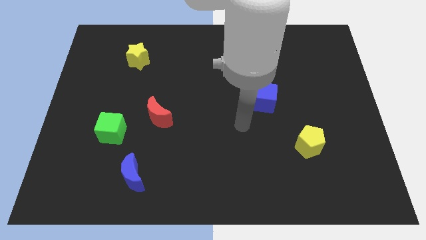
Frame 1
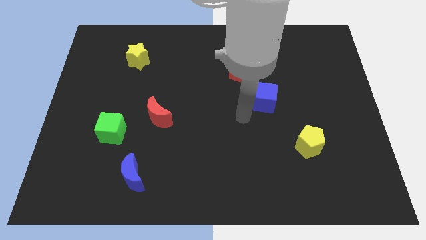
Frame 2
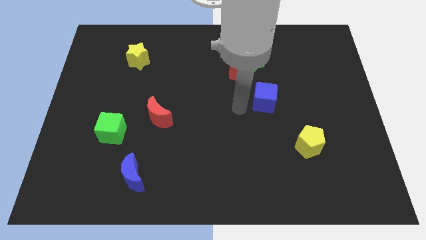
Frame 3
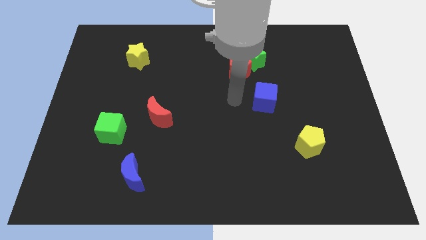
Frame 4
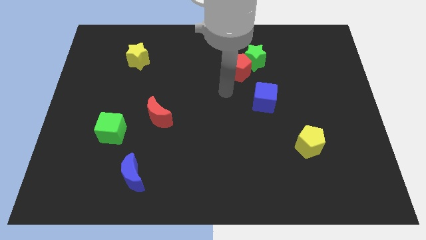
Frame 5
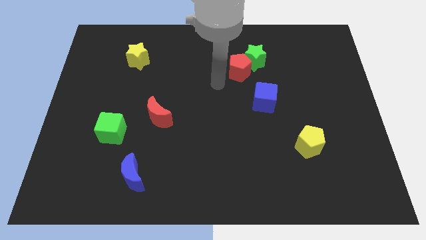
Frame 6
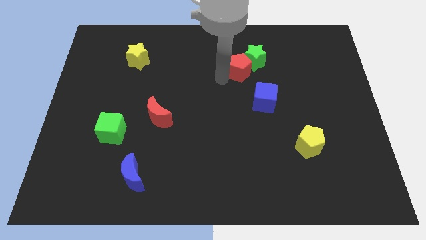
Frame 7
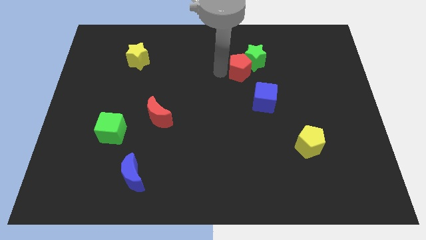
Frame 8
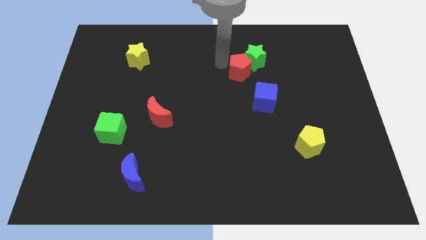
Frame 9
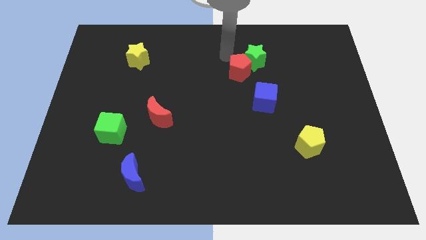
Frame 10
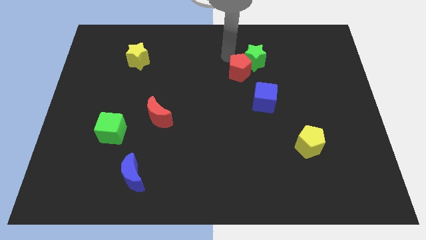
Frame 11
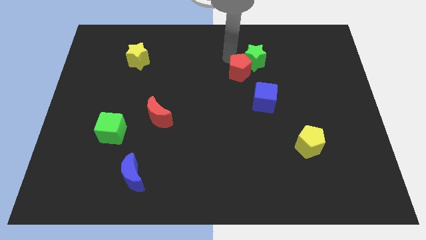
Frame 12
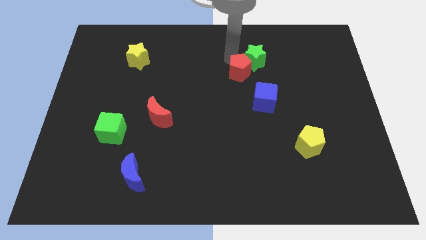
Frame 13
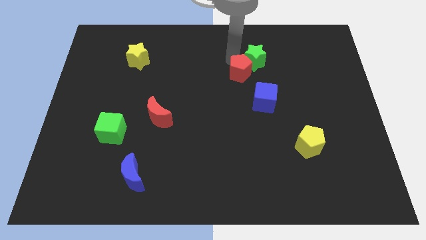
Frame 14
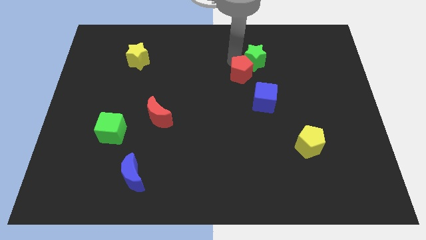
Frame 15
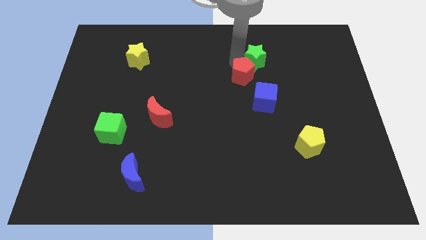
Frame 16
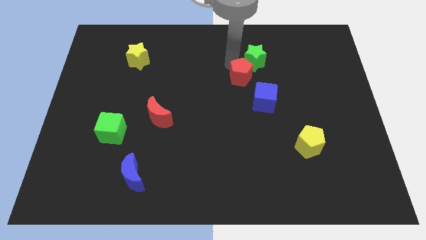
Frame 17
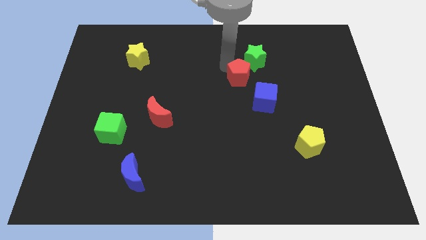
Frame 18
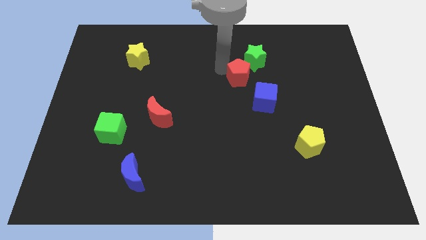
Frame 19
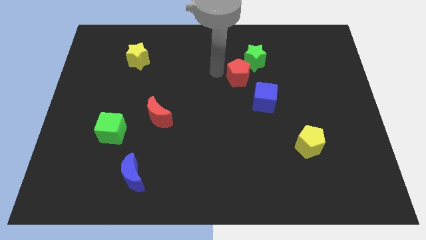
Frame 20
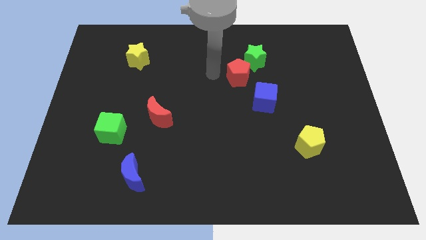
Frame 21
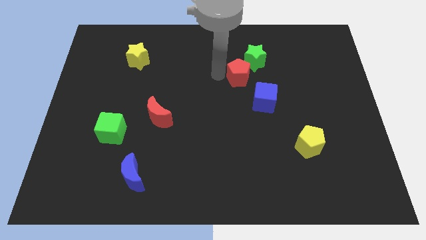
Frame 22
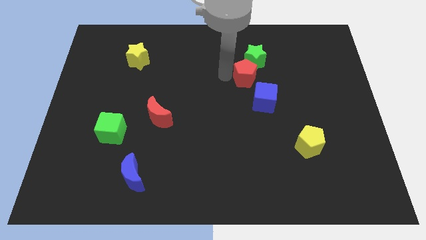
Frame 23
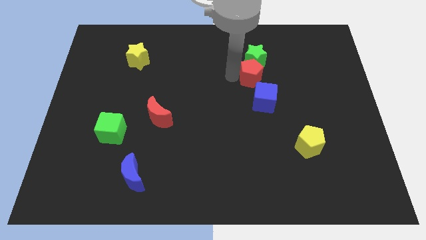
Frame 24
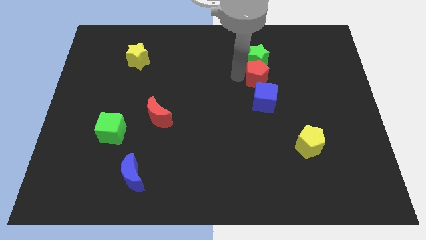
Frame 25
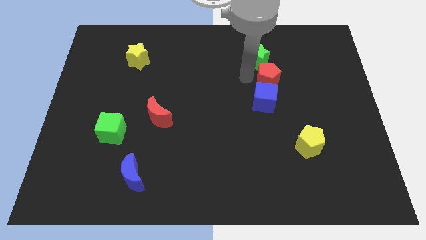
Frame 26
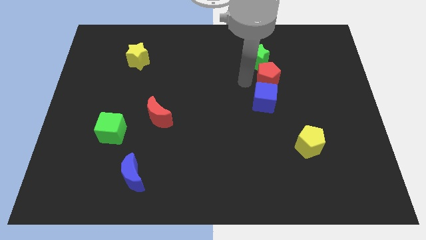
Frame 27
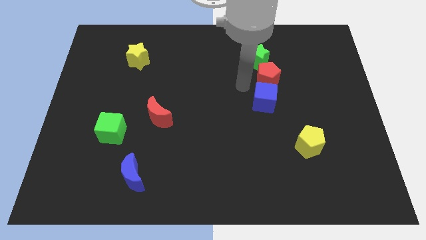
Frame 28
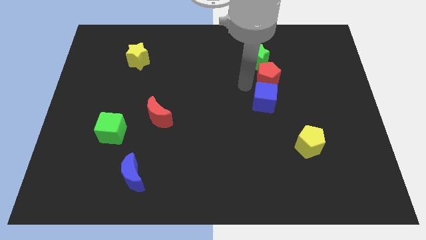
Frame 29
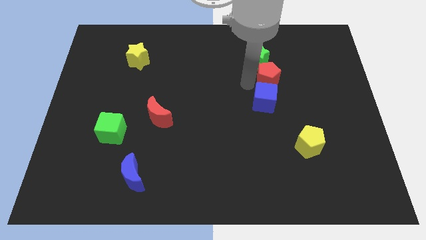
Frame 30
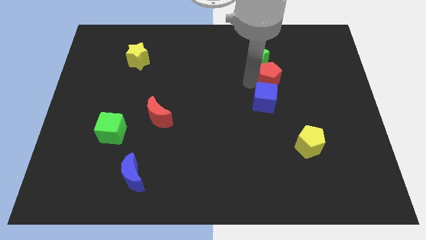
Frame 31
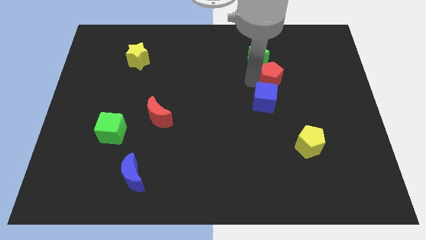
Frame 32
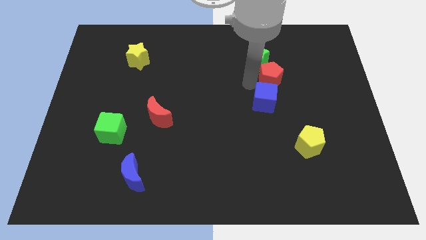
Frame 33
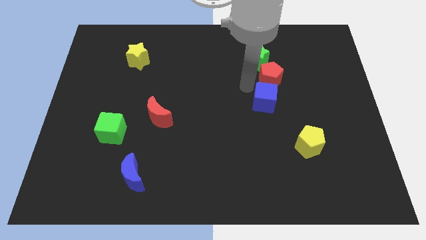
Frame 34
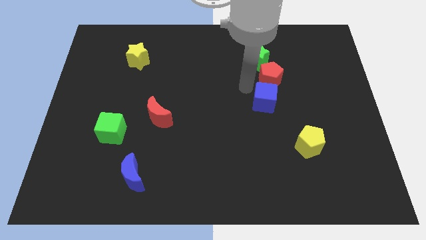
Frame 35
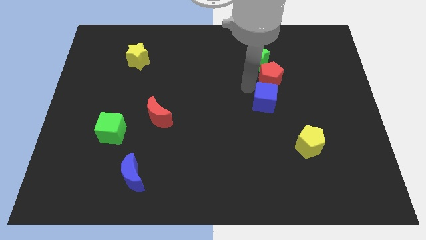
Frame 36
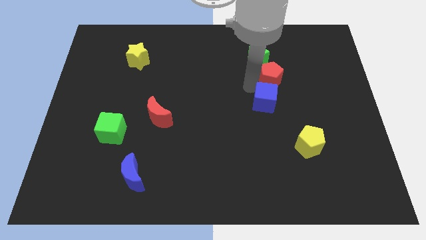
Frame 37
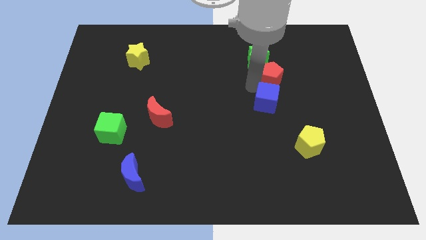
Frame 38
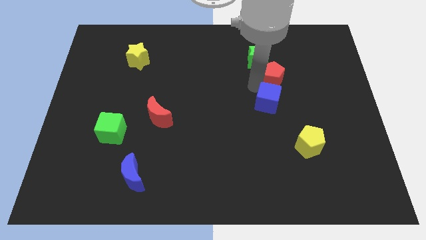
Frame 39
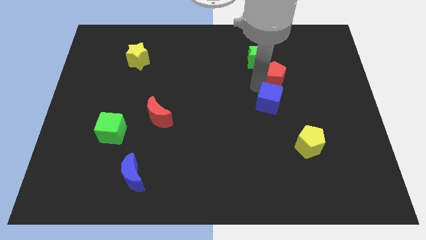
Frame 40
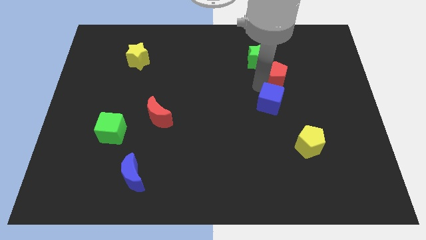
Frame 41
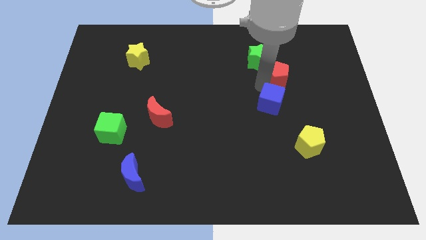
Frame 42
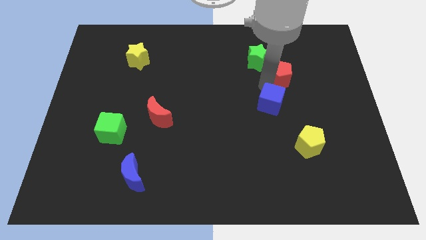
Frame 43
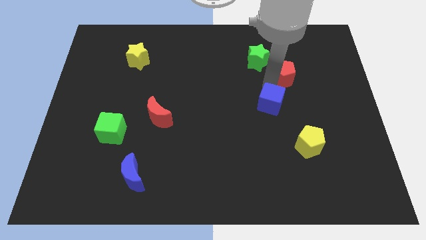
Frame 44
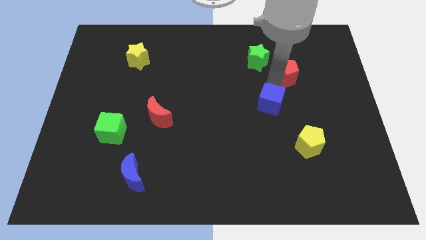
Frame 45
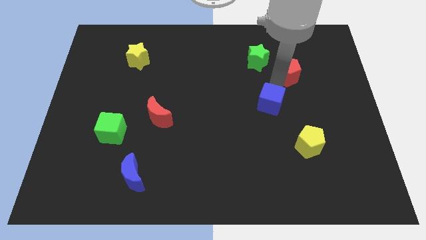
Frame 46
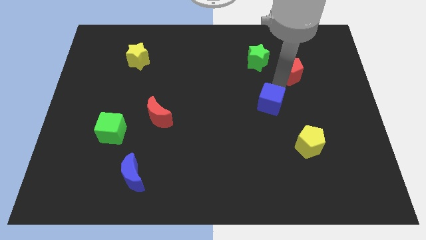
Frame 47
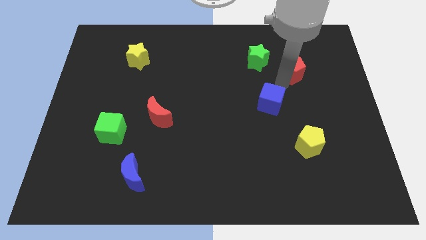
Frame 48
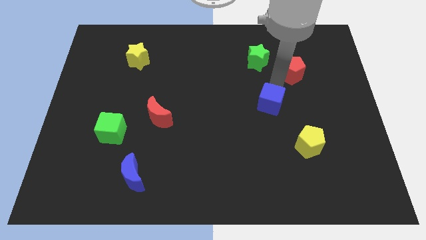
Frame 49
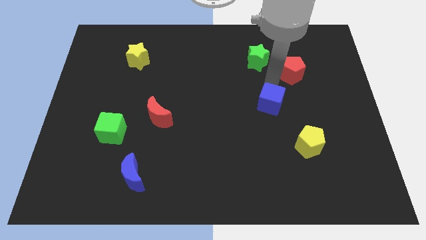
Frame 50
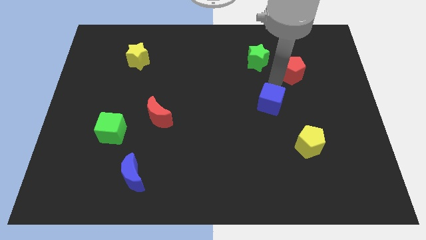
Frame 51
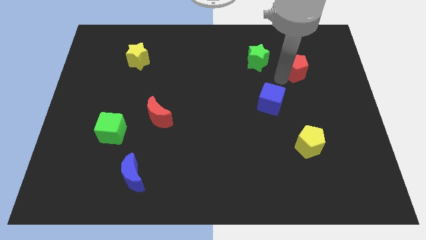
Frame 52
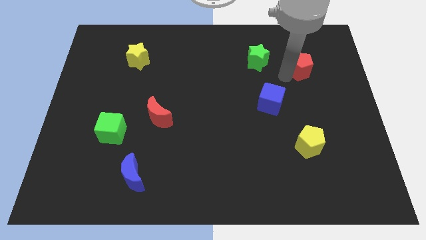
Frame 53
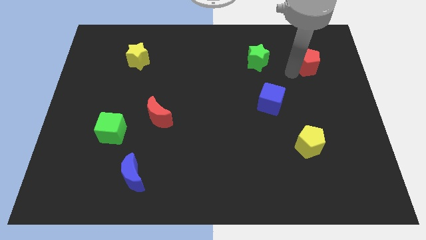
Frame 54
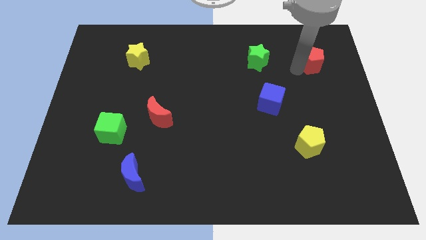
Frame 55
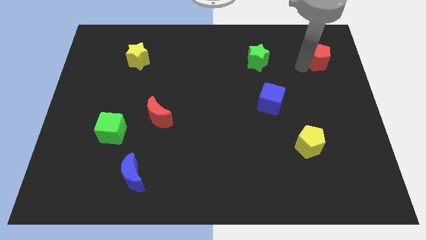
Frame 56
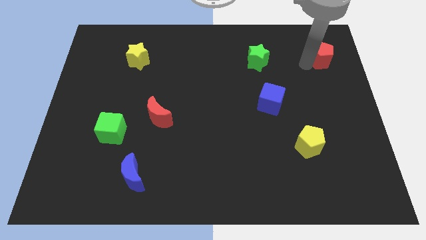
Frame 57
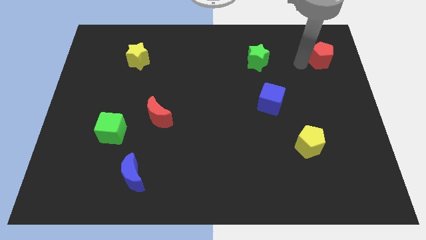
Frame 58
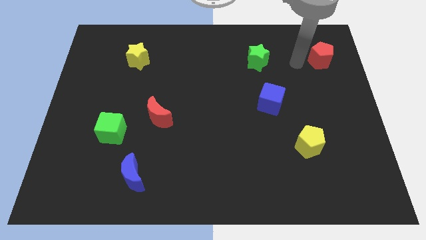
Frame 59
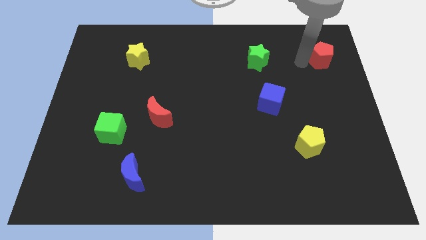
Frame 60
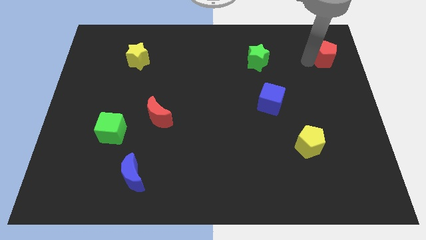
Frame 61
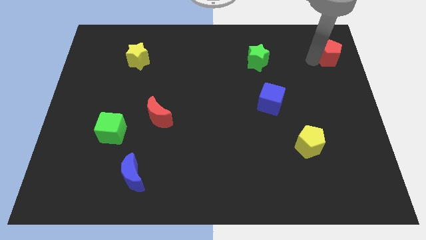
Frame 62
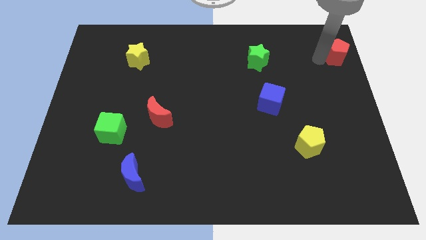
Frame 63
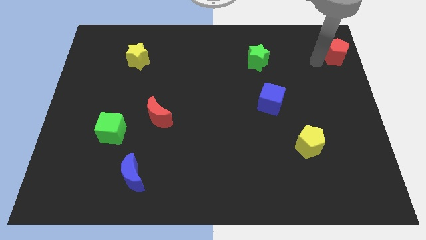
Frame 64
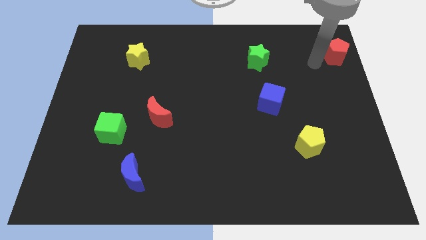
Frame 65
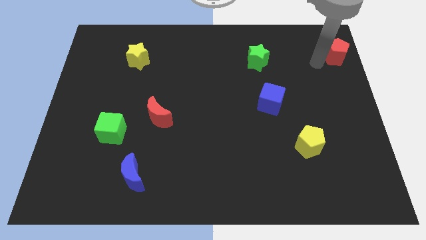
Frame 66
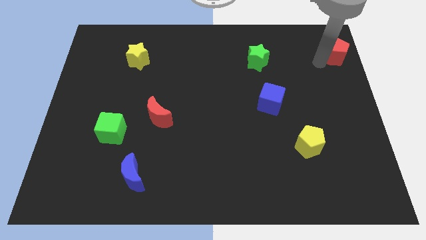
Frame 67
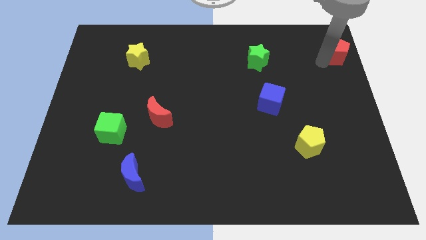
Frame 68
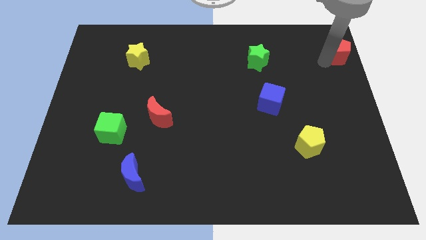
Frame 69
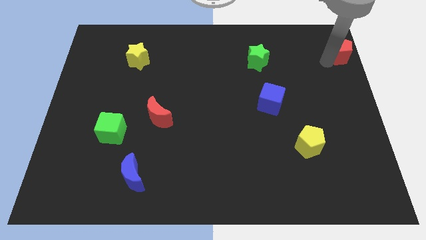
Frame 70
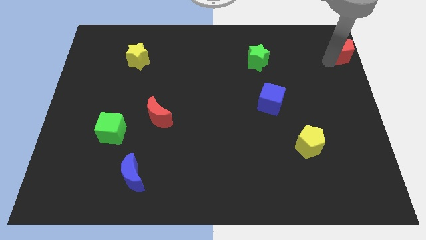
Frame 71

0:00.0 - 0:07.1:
move the red pentagon to the upper right corner
